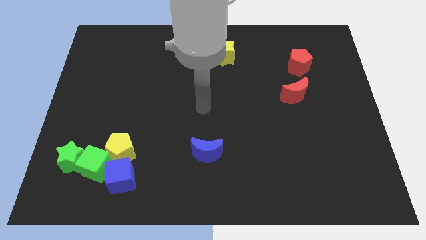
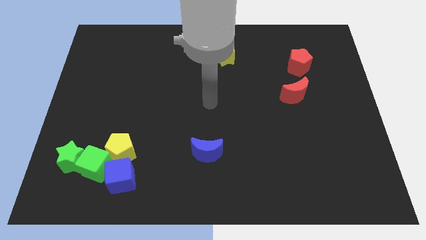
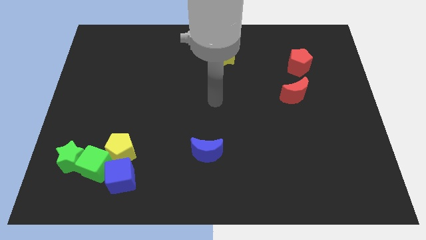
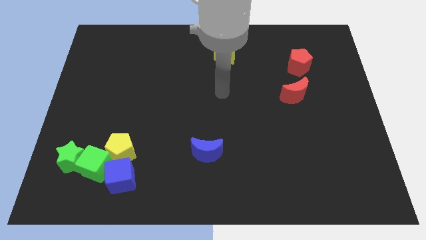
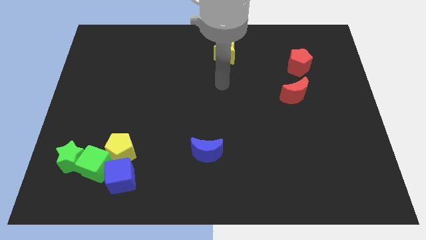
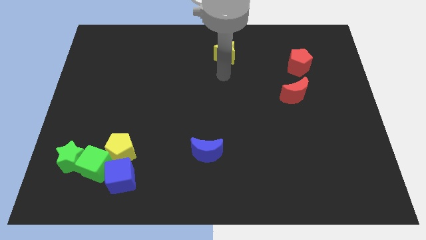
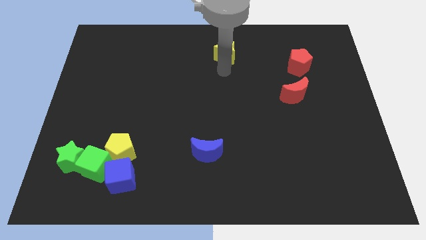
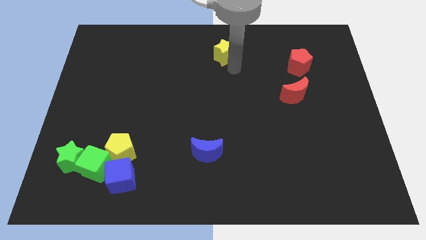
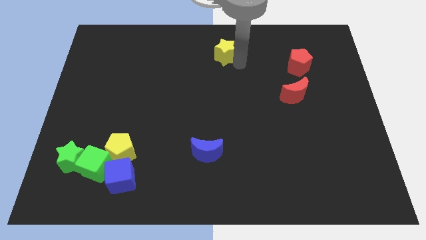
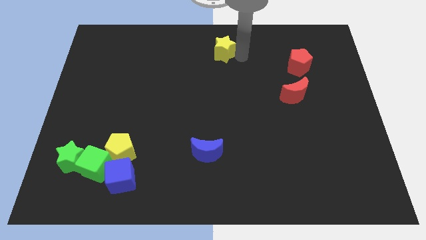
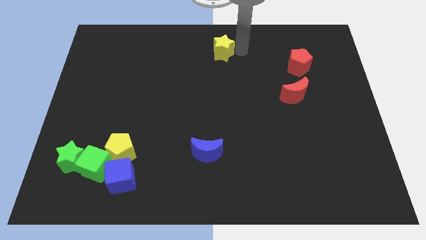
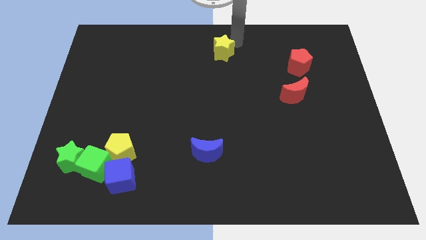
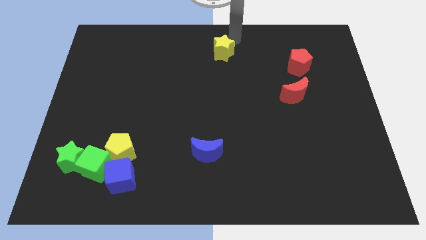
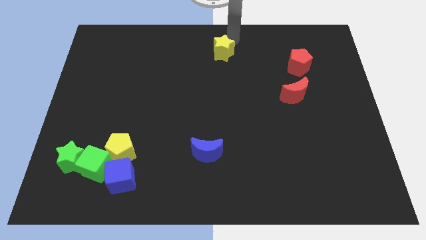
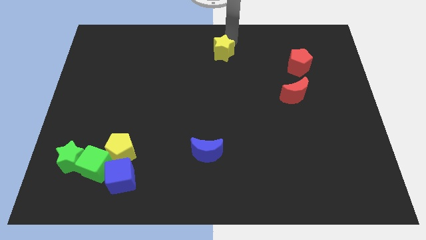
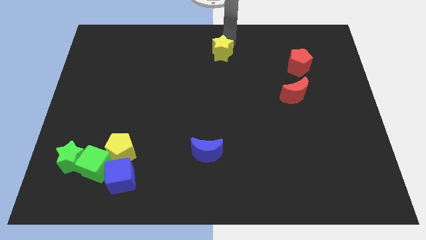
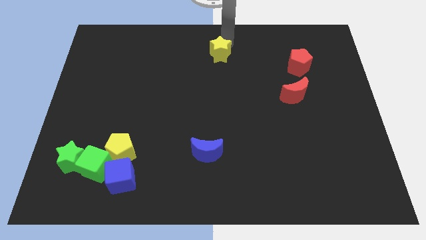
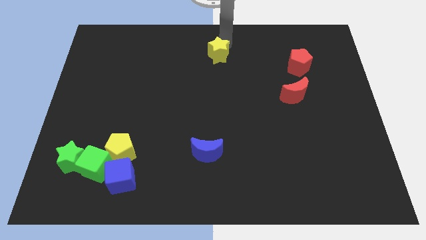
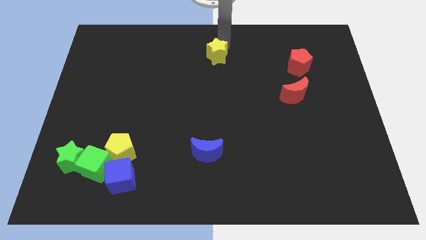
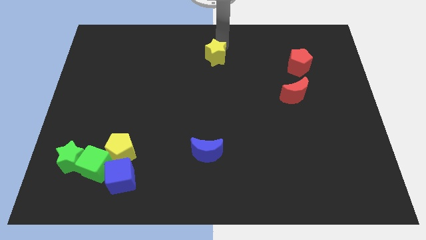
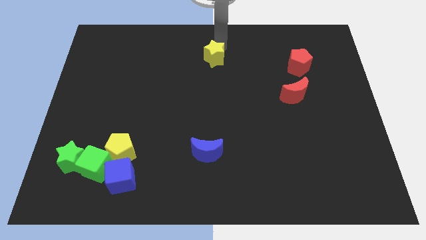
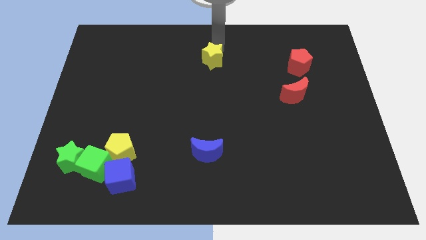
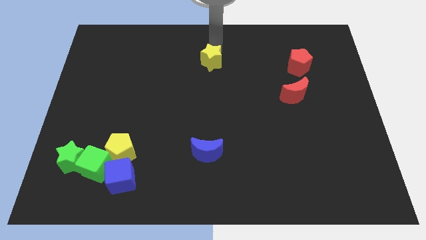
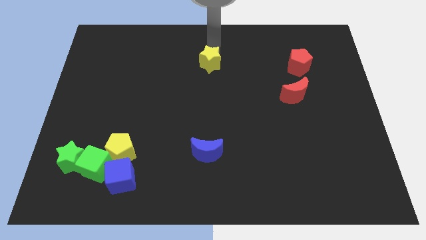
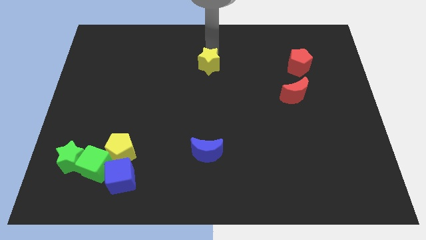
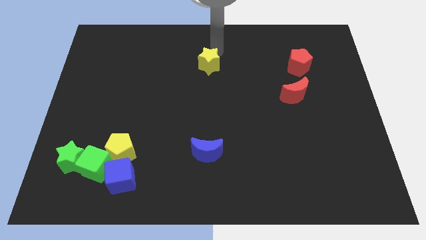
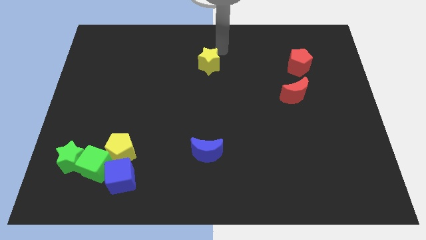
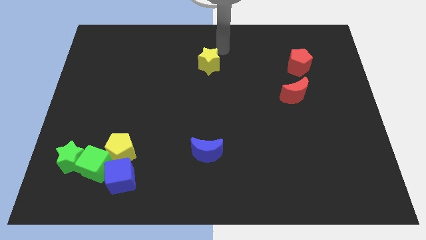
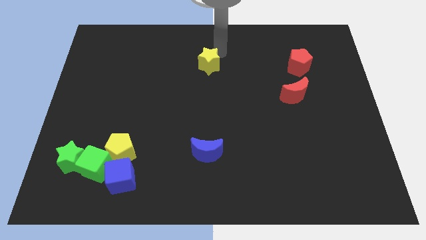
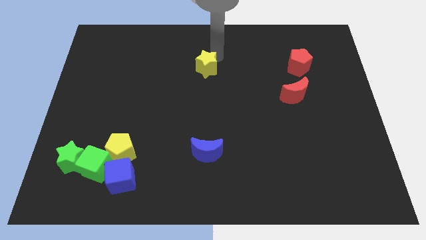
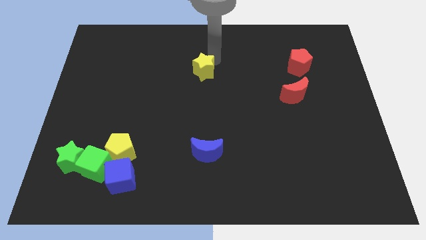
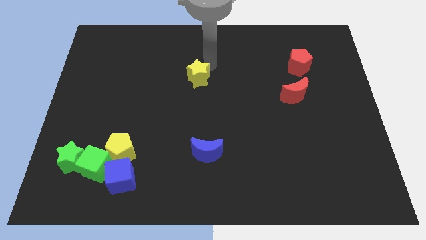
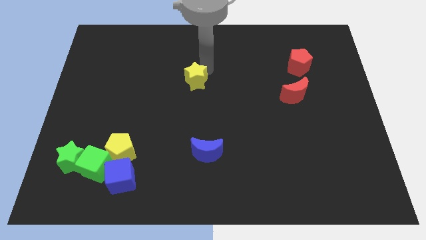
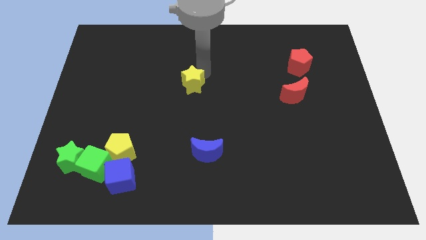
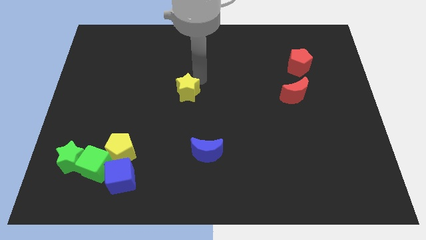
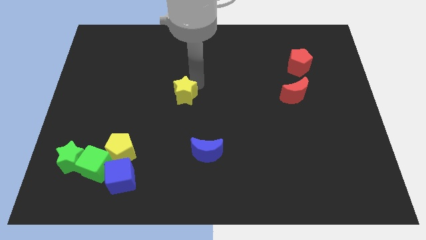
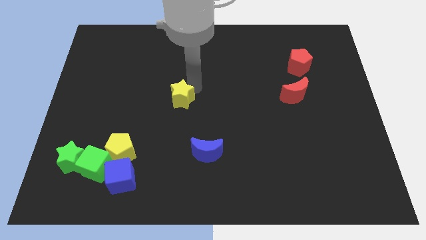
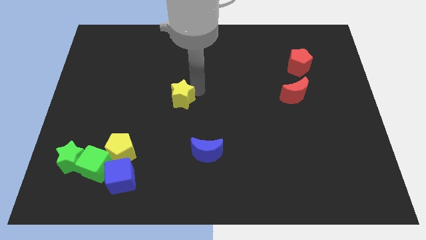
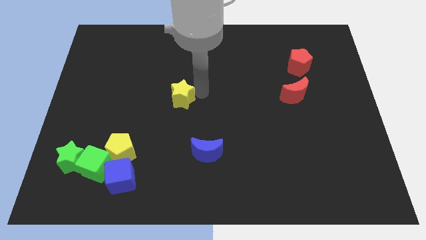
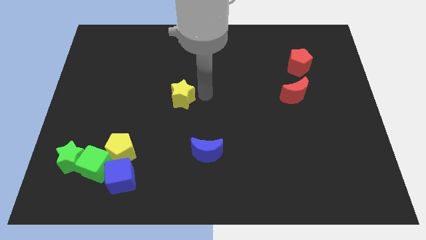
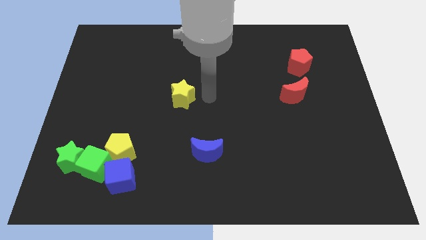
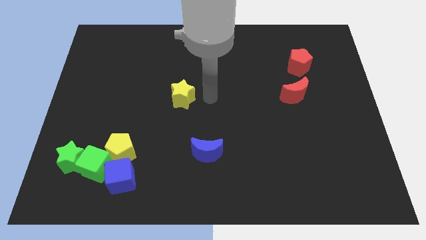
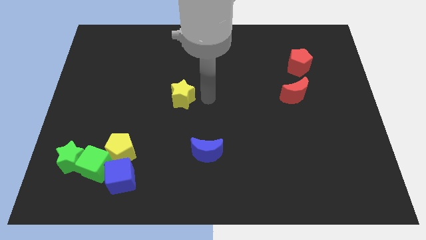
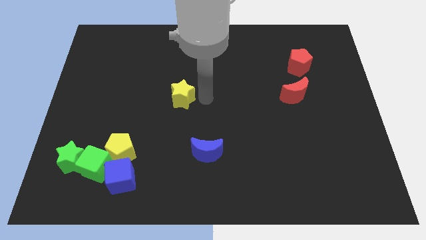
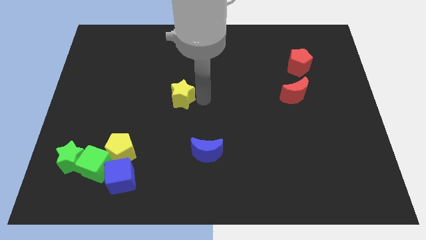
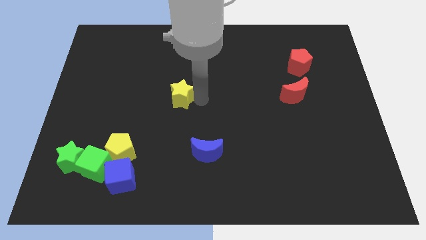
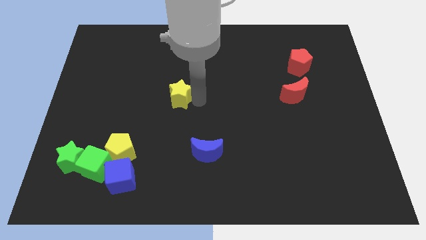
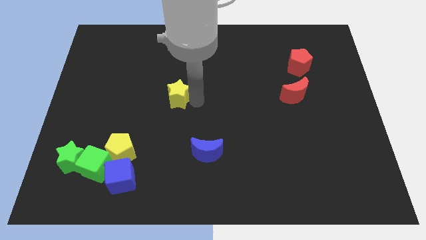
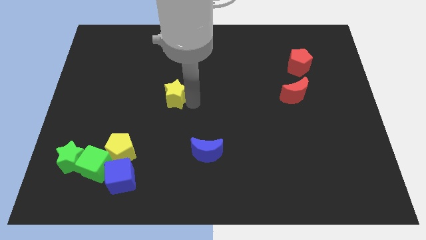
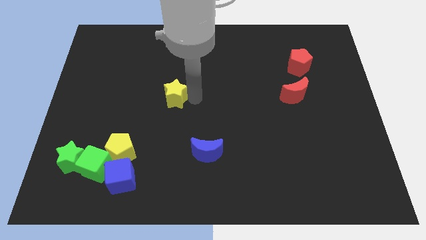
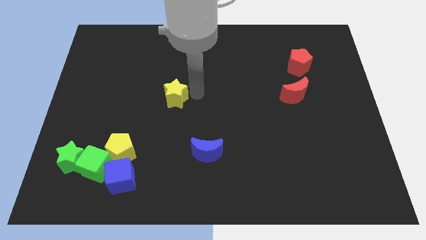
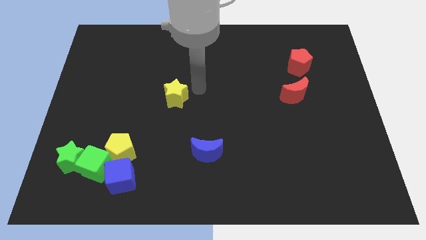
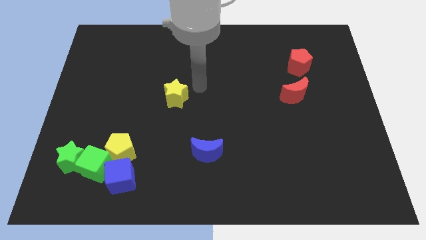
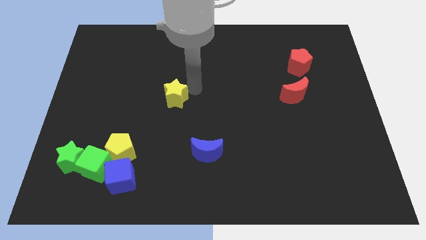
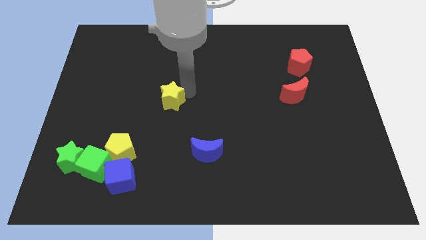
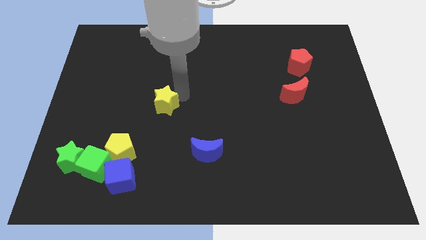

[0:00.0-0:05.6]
move the yellow star diagonally down and left

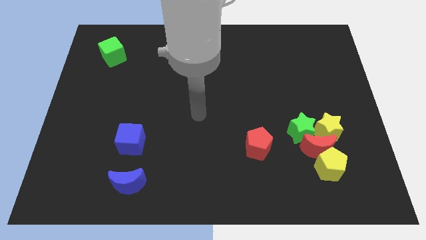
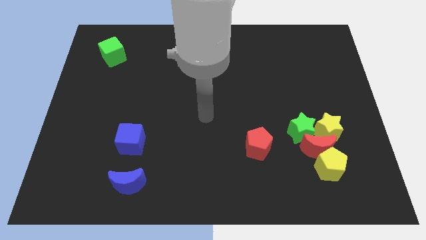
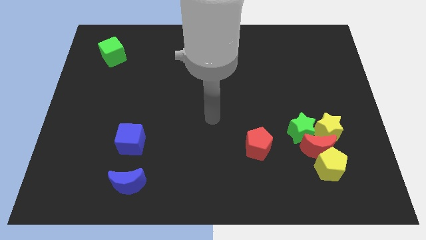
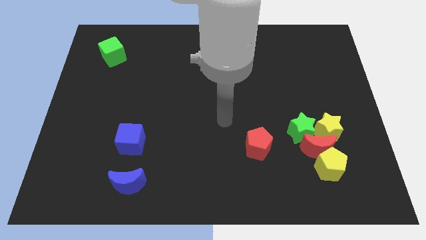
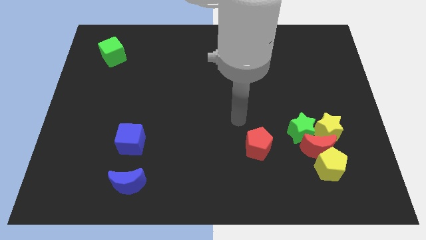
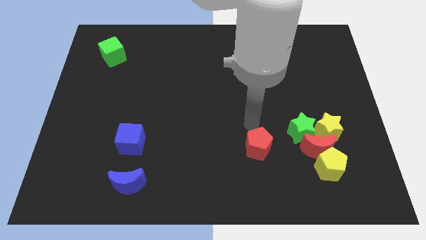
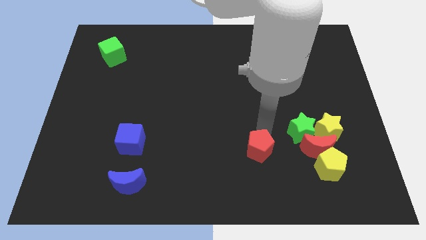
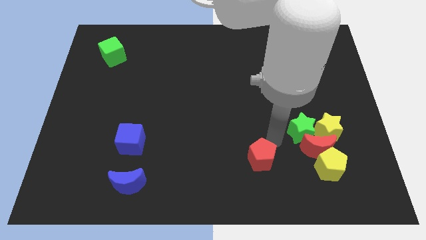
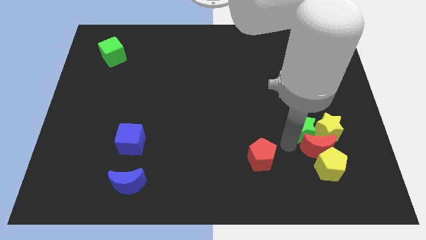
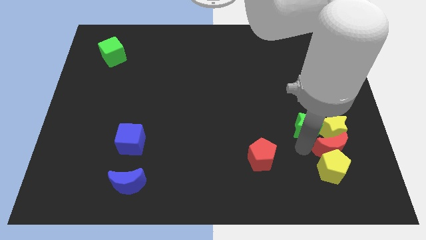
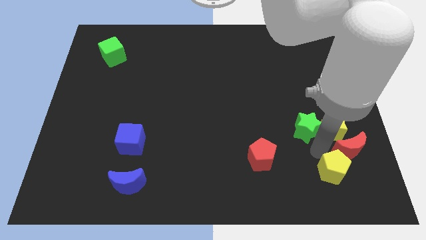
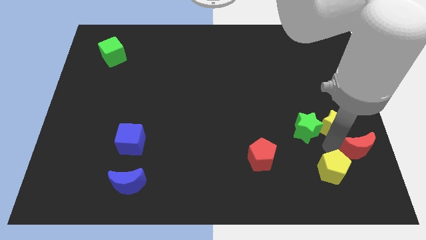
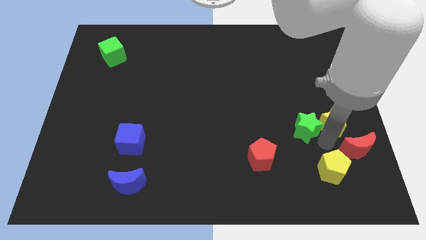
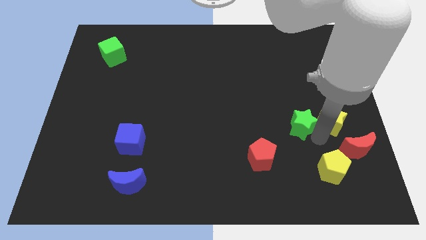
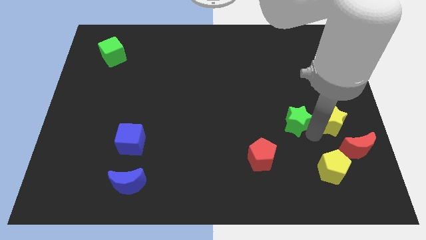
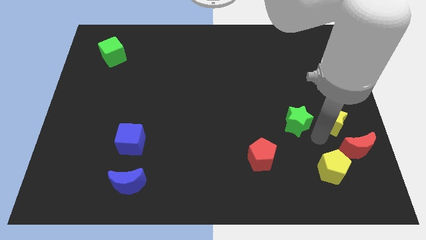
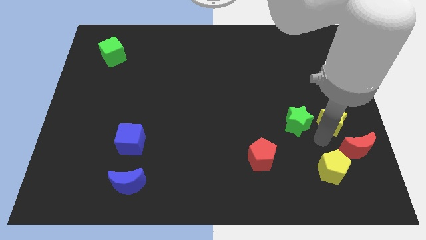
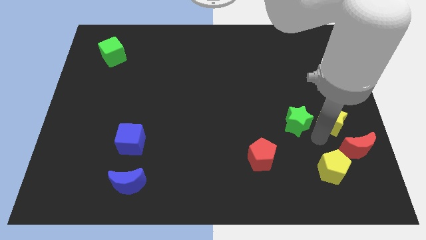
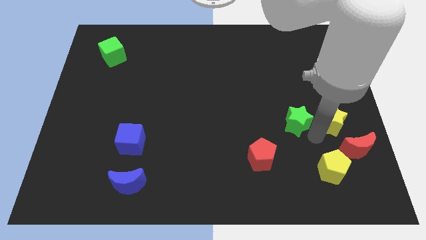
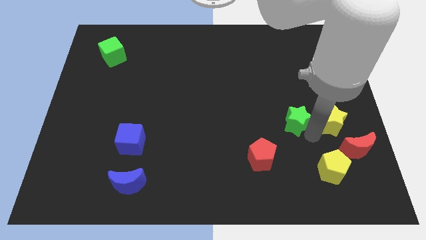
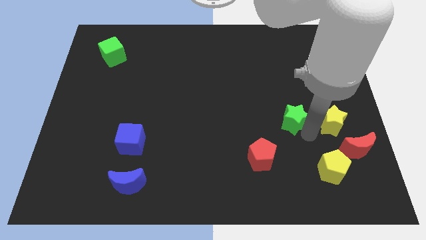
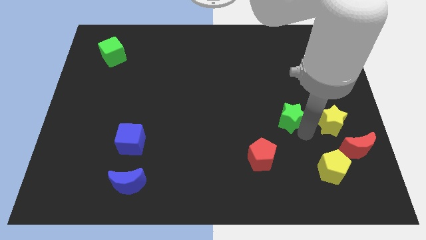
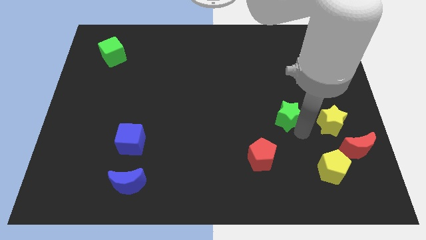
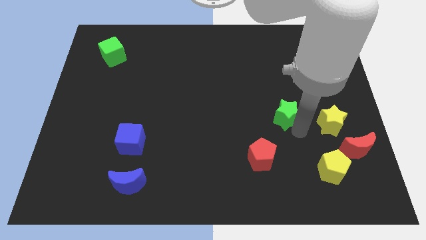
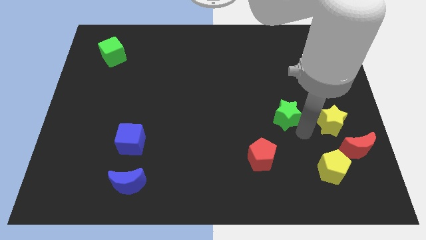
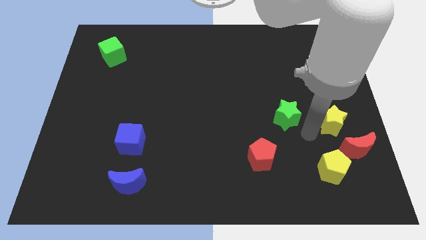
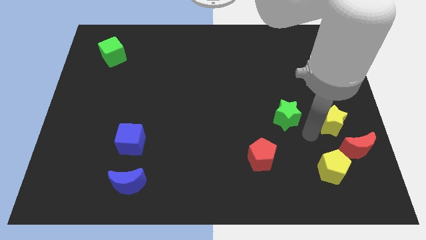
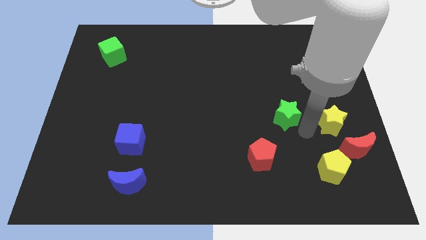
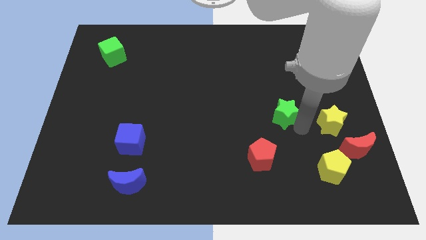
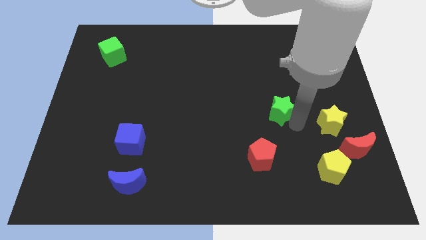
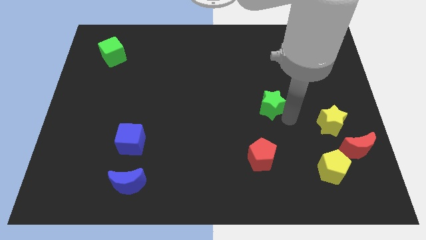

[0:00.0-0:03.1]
slightly move the green star diagonally up and to the left
